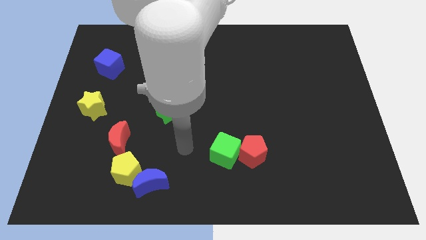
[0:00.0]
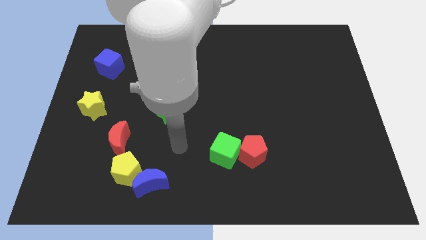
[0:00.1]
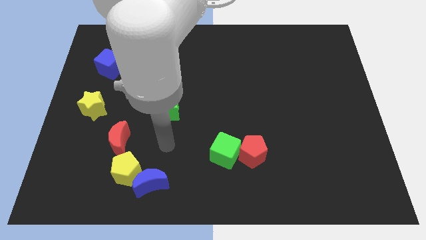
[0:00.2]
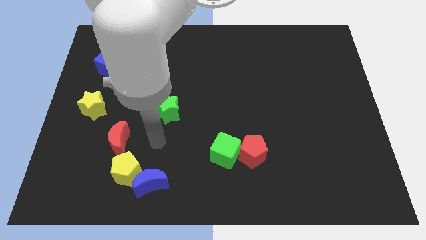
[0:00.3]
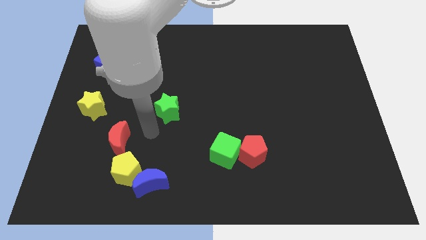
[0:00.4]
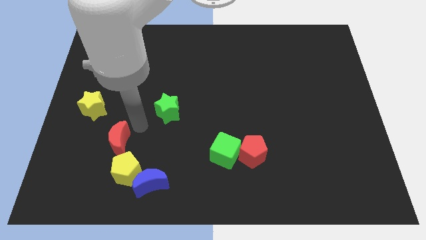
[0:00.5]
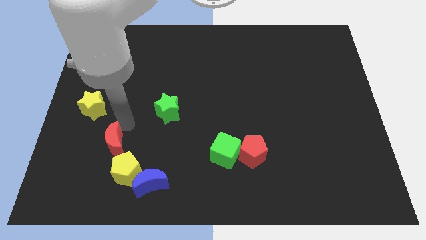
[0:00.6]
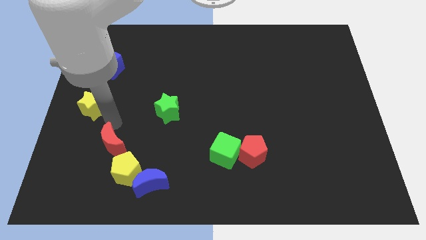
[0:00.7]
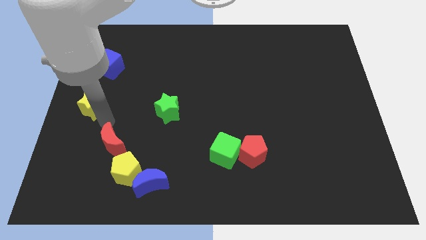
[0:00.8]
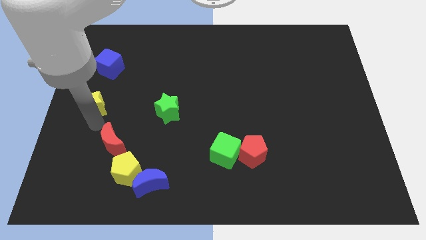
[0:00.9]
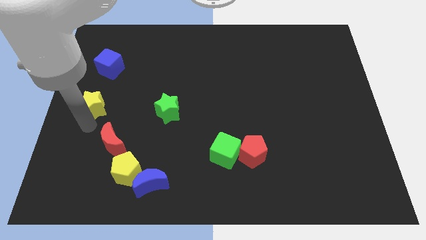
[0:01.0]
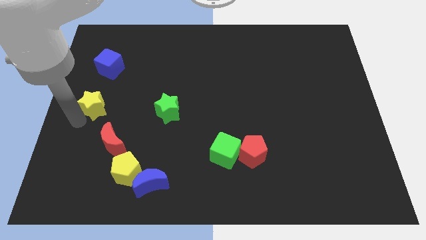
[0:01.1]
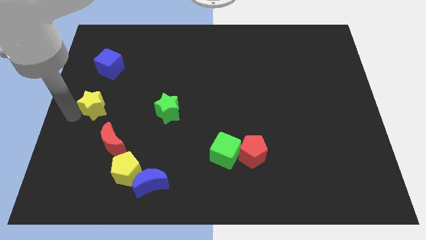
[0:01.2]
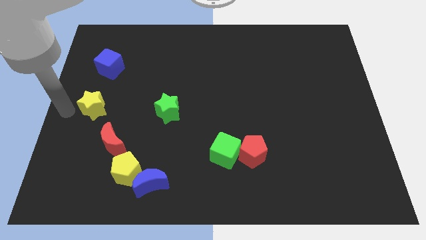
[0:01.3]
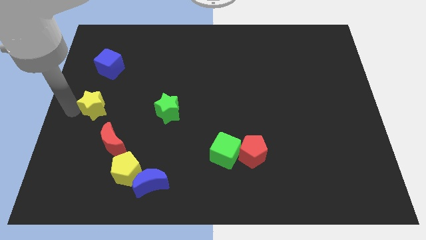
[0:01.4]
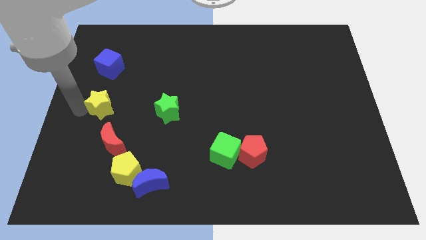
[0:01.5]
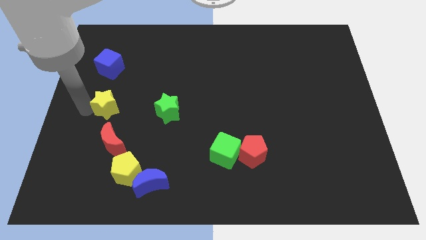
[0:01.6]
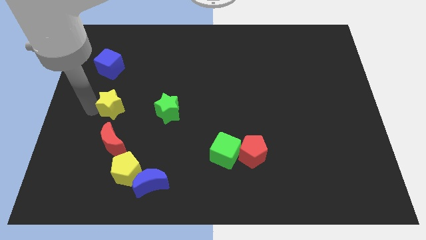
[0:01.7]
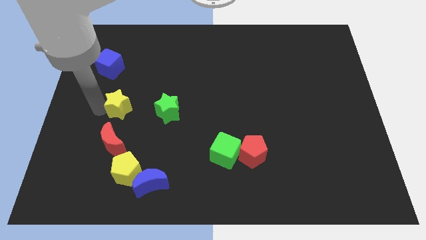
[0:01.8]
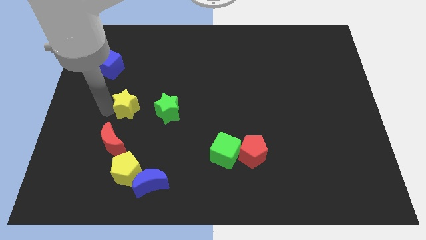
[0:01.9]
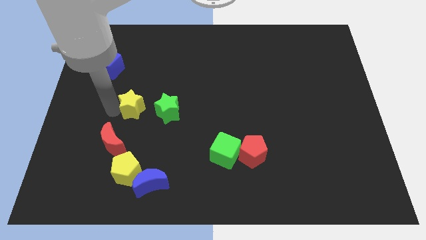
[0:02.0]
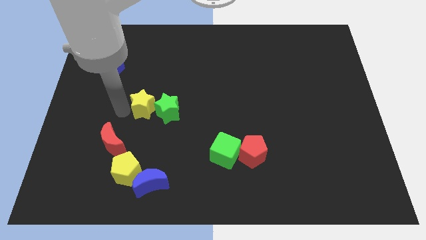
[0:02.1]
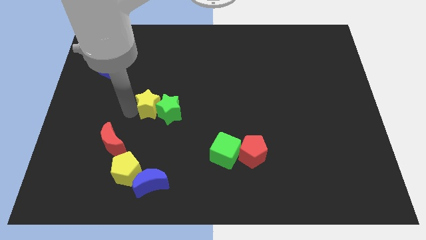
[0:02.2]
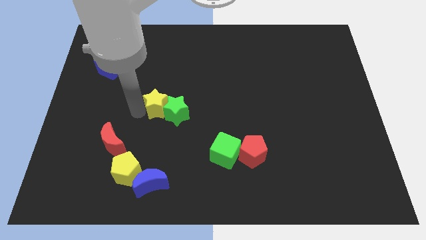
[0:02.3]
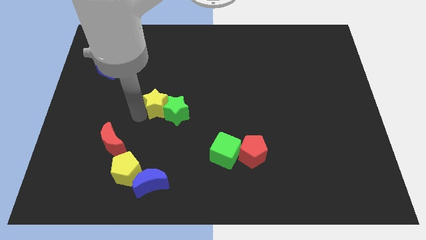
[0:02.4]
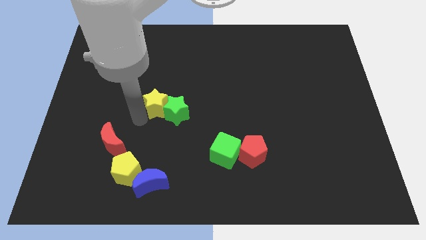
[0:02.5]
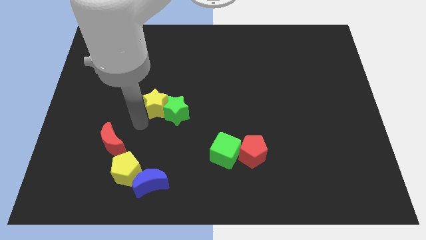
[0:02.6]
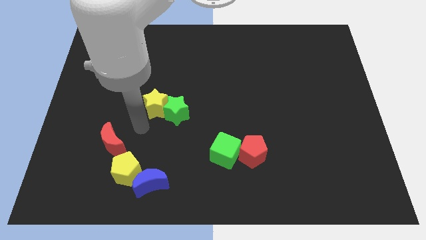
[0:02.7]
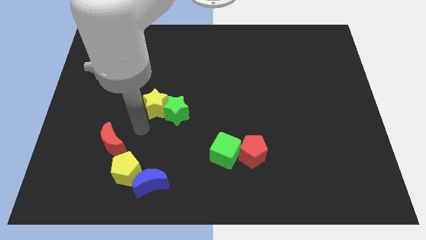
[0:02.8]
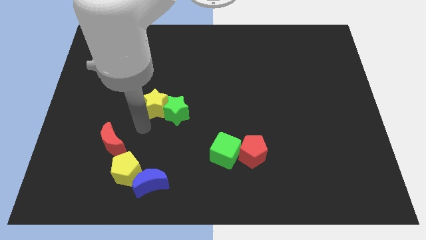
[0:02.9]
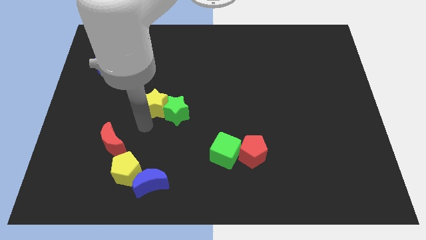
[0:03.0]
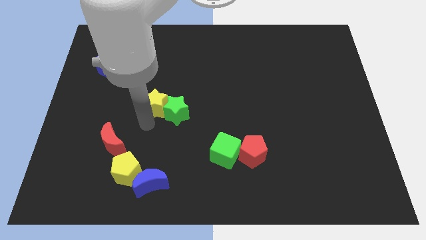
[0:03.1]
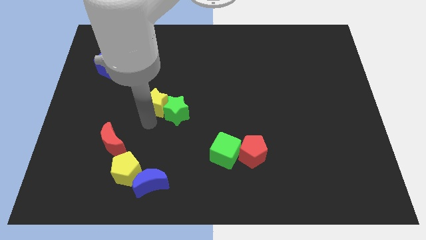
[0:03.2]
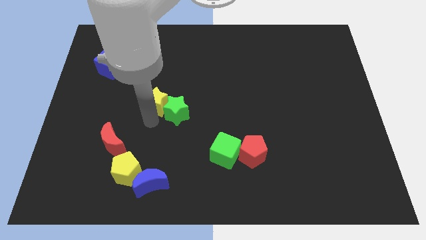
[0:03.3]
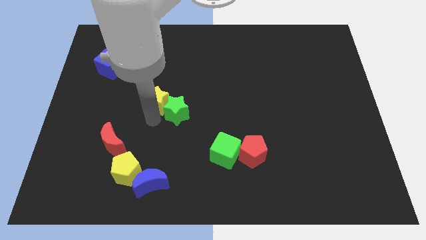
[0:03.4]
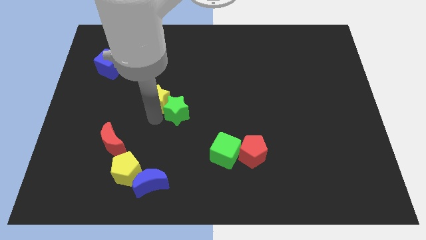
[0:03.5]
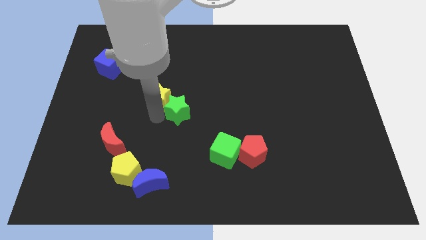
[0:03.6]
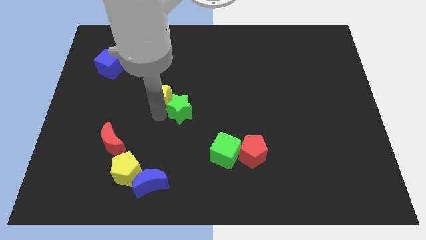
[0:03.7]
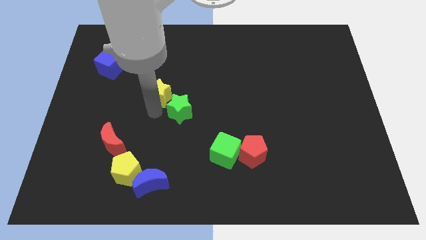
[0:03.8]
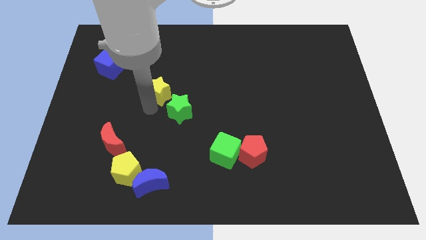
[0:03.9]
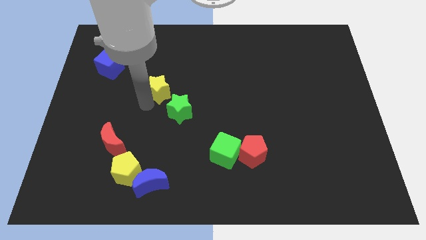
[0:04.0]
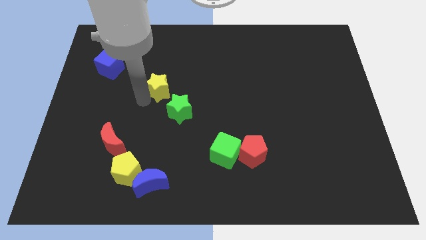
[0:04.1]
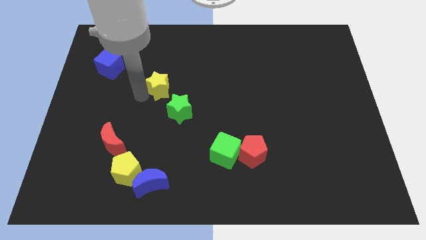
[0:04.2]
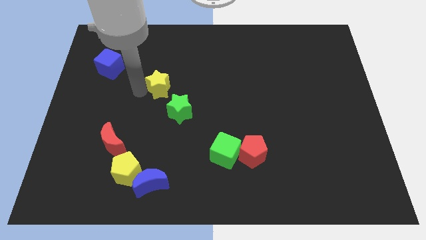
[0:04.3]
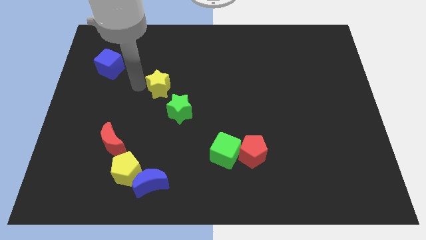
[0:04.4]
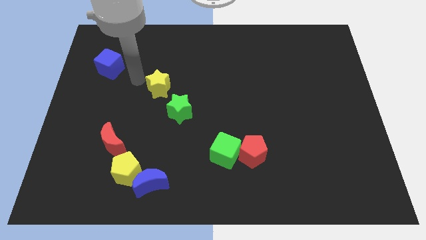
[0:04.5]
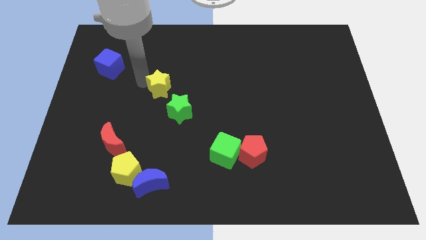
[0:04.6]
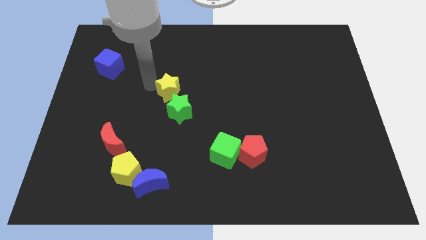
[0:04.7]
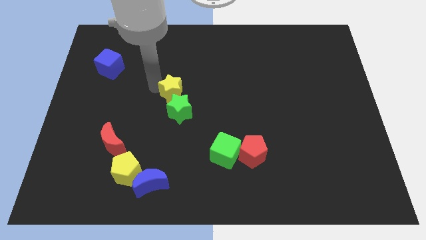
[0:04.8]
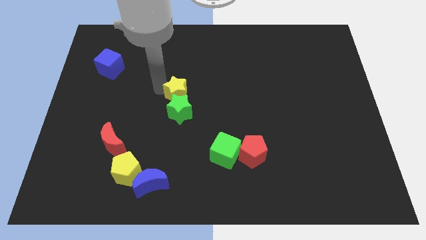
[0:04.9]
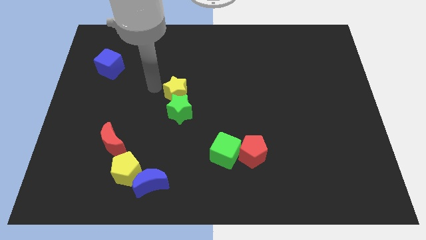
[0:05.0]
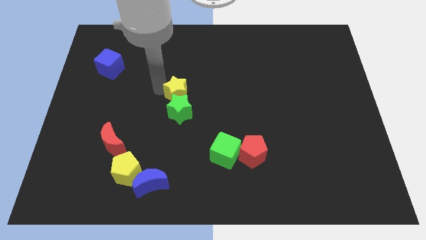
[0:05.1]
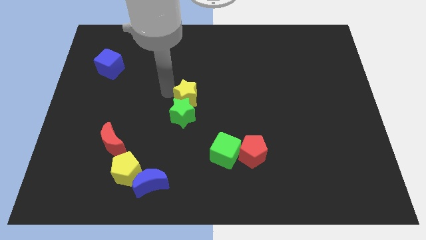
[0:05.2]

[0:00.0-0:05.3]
move the yellow star to the right

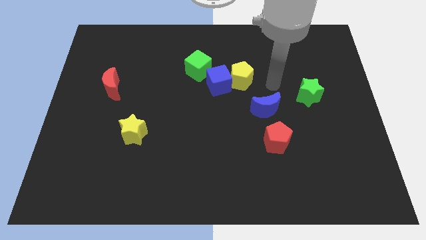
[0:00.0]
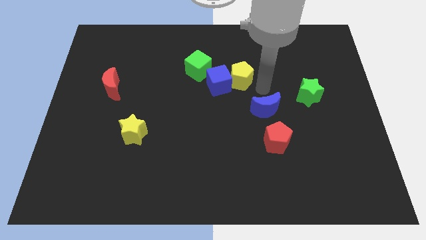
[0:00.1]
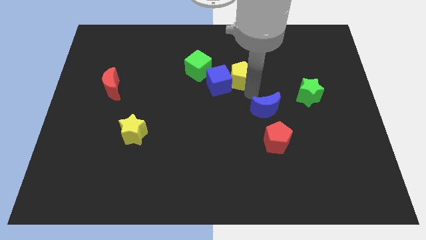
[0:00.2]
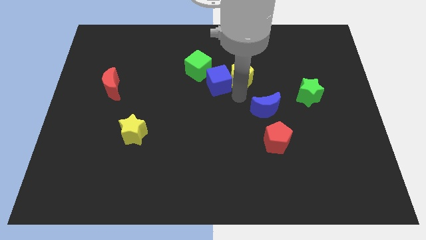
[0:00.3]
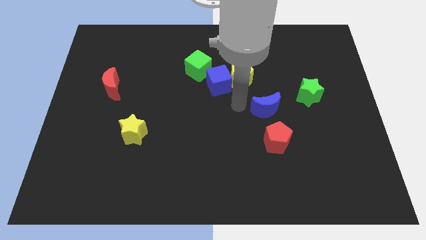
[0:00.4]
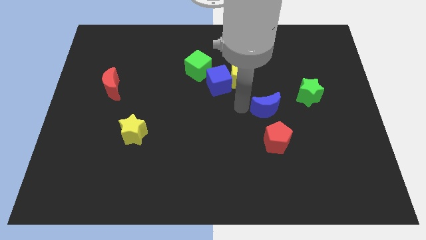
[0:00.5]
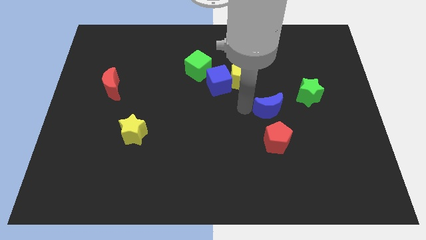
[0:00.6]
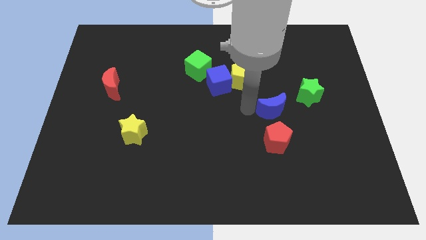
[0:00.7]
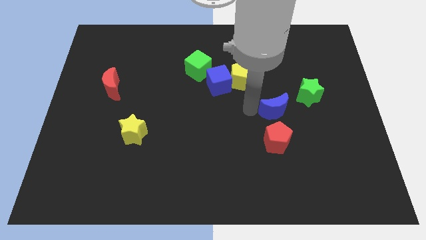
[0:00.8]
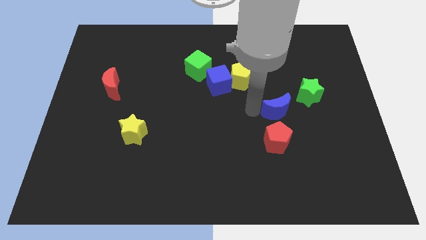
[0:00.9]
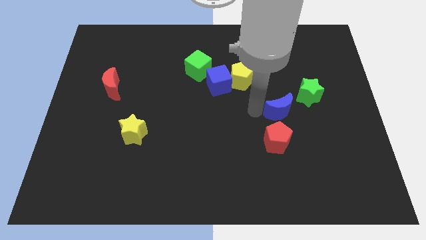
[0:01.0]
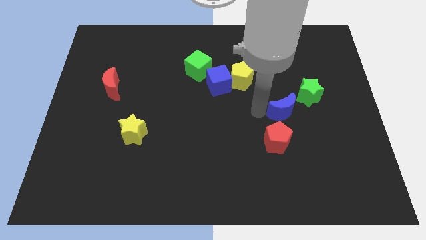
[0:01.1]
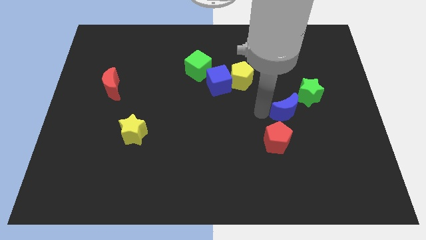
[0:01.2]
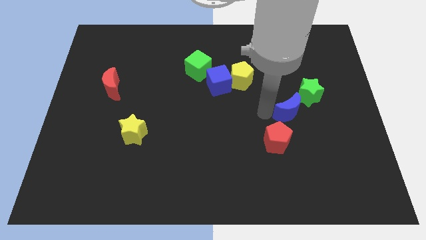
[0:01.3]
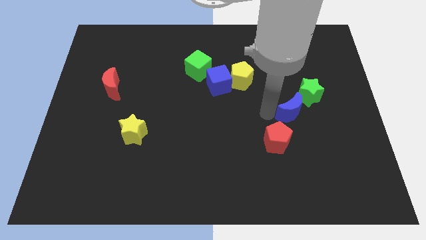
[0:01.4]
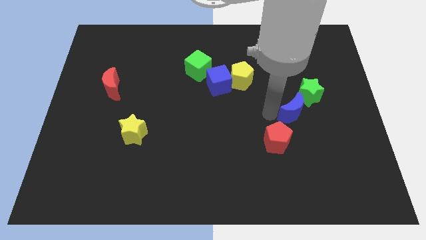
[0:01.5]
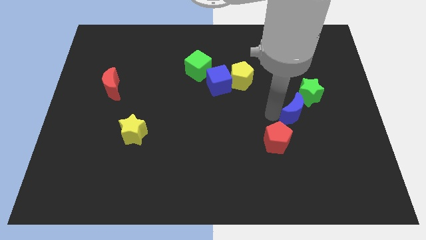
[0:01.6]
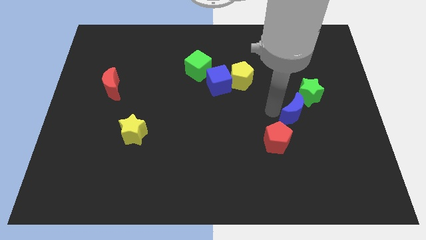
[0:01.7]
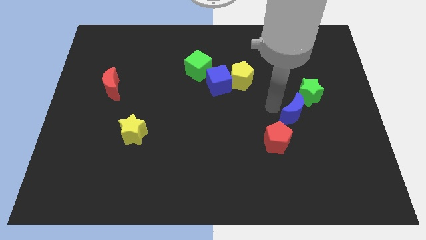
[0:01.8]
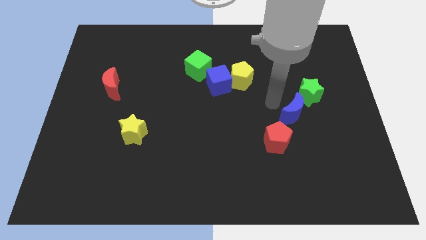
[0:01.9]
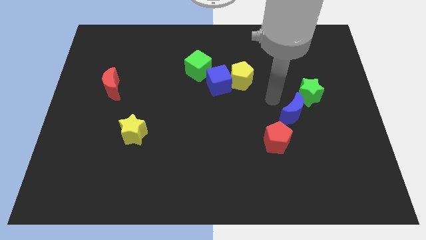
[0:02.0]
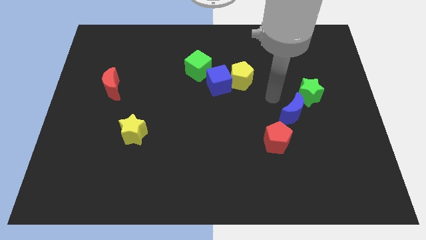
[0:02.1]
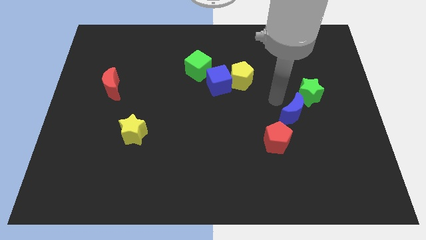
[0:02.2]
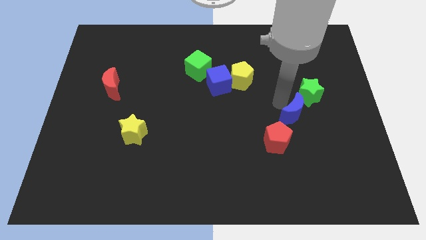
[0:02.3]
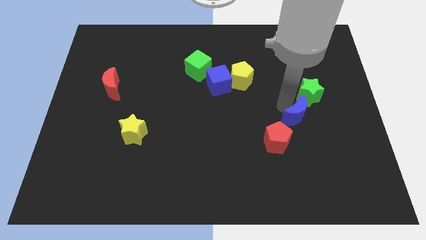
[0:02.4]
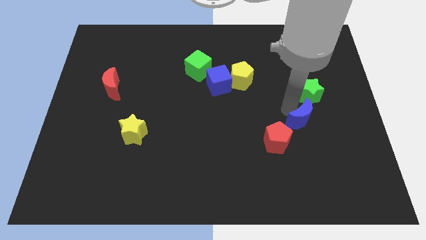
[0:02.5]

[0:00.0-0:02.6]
slightly push the blue moon diagonally down and right
